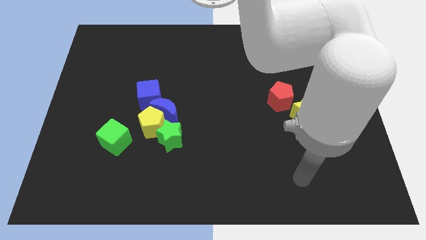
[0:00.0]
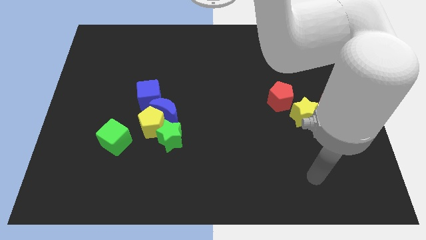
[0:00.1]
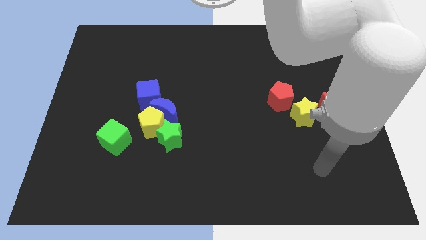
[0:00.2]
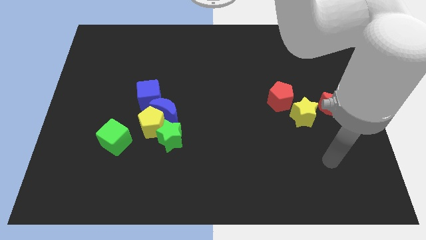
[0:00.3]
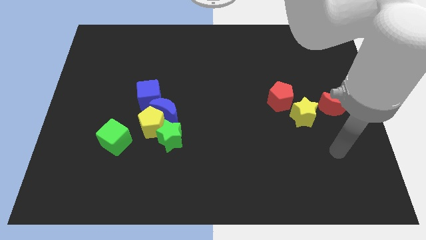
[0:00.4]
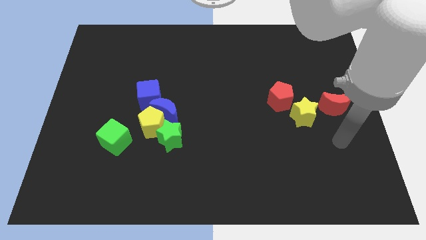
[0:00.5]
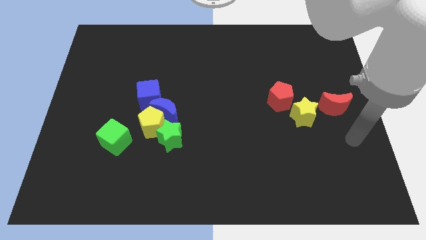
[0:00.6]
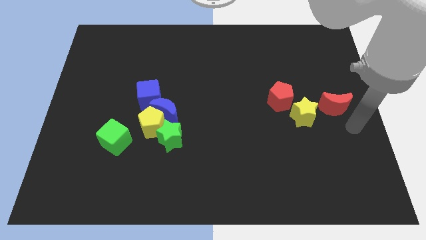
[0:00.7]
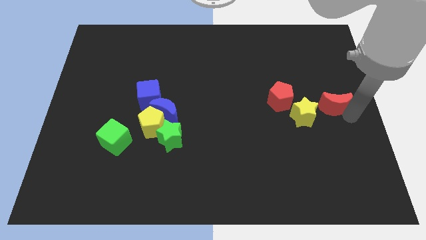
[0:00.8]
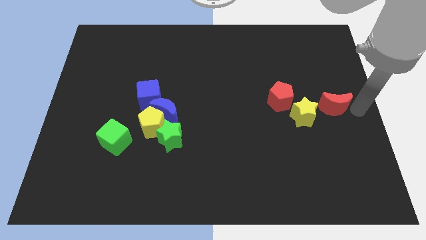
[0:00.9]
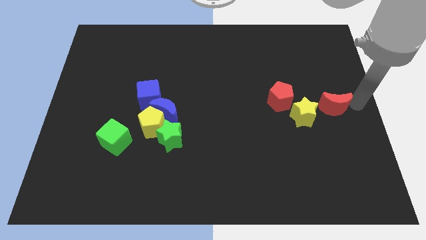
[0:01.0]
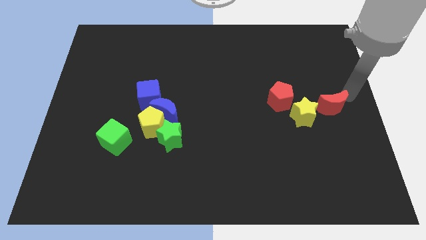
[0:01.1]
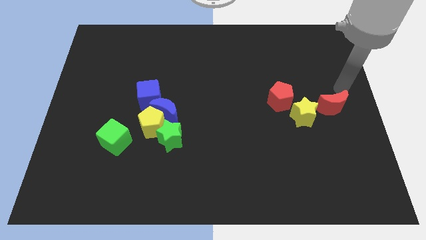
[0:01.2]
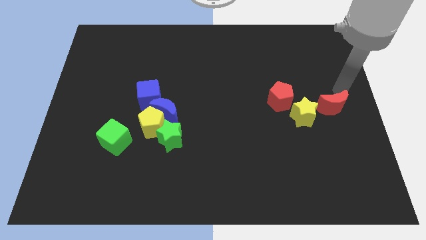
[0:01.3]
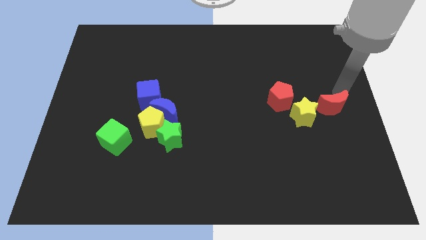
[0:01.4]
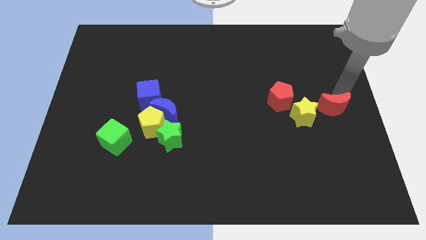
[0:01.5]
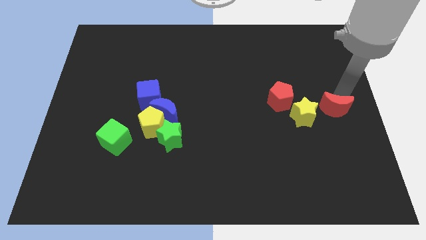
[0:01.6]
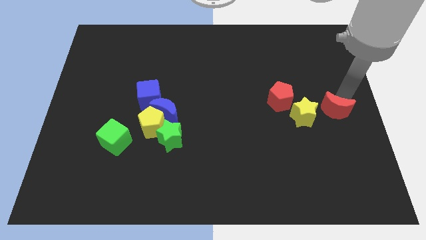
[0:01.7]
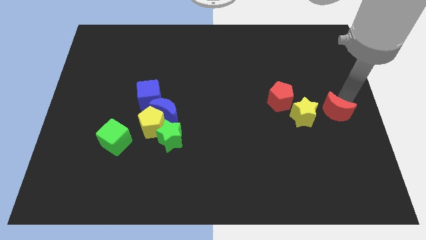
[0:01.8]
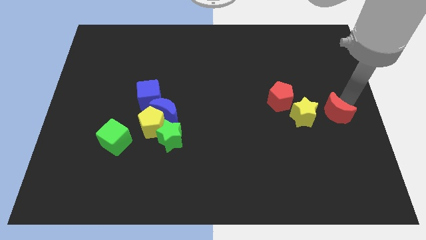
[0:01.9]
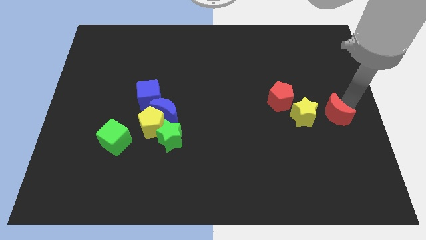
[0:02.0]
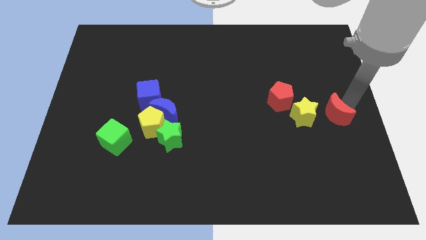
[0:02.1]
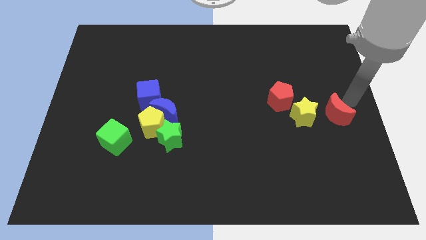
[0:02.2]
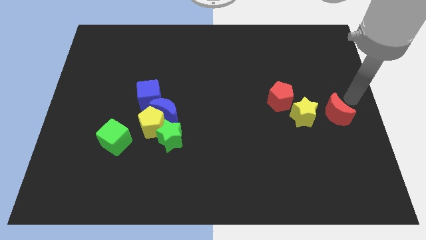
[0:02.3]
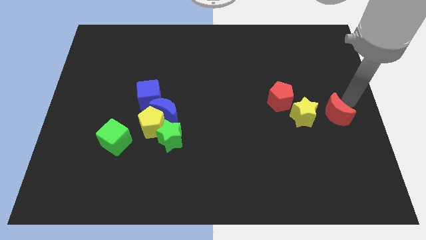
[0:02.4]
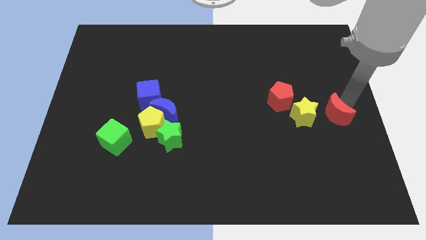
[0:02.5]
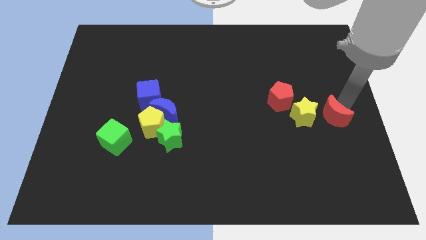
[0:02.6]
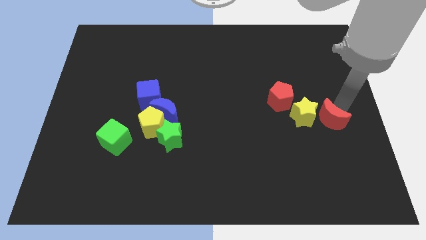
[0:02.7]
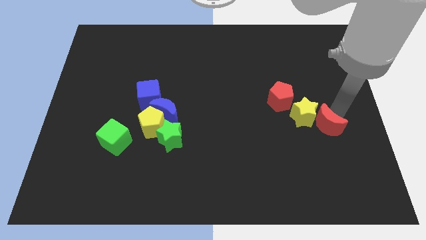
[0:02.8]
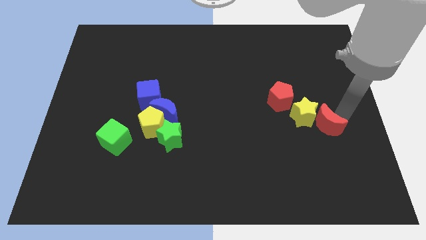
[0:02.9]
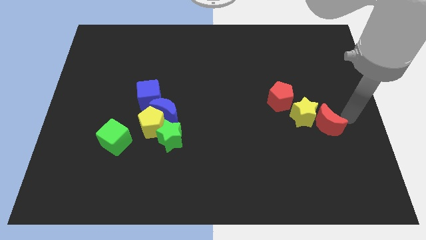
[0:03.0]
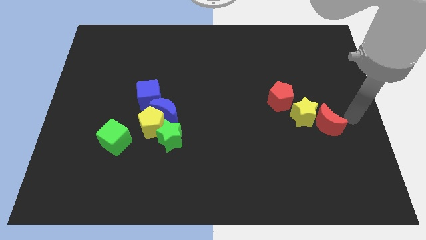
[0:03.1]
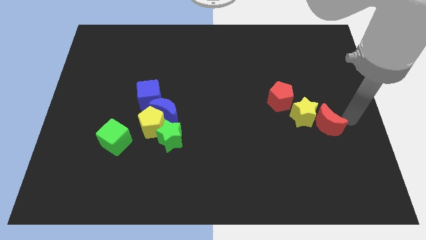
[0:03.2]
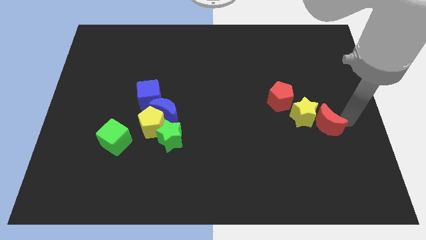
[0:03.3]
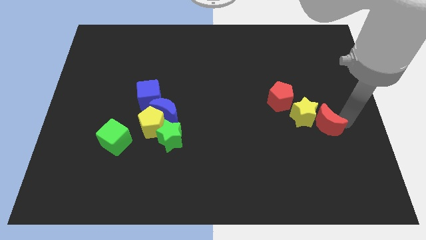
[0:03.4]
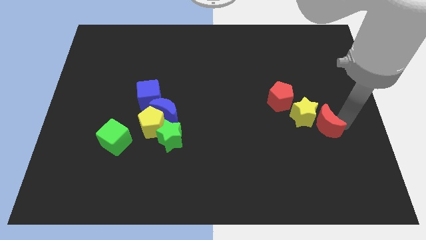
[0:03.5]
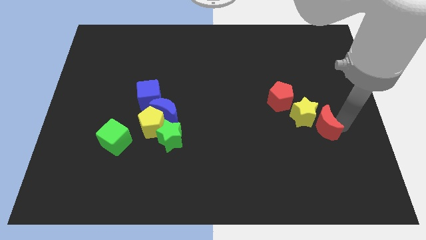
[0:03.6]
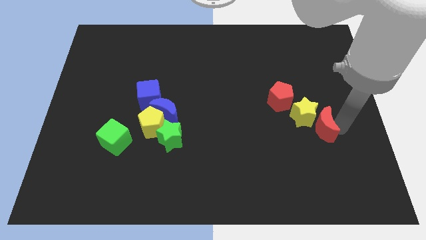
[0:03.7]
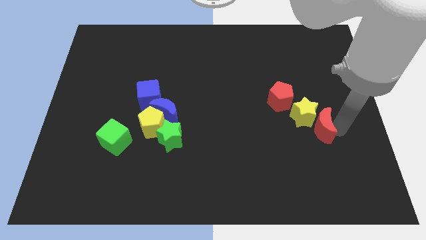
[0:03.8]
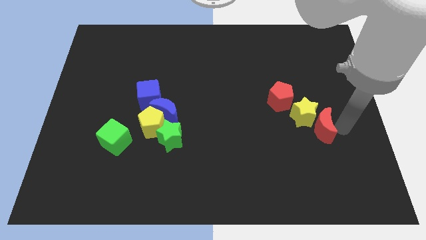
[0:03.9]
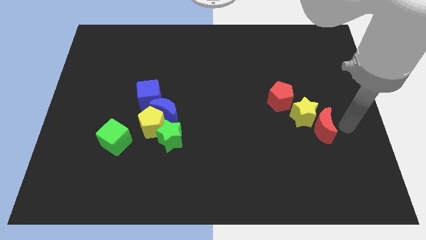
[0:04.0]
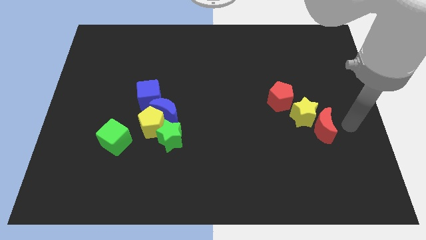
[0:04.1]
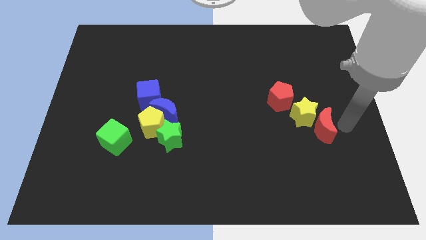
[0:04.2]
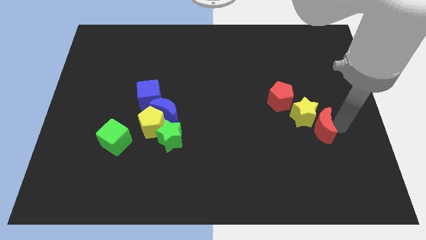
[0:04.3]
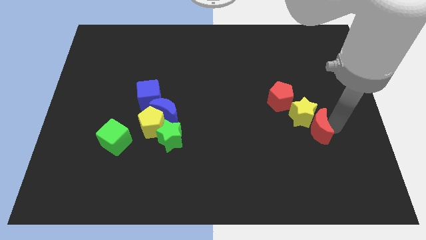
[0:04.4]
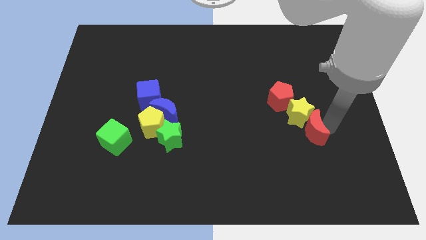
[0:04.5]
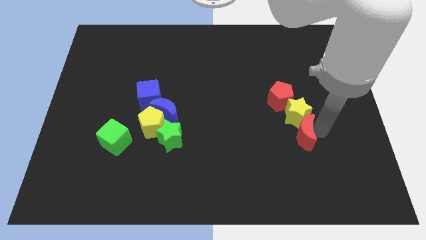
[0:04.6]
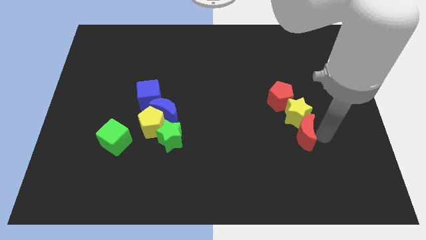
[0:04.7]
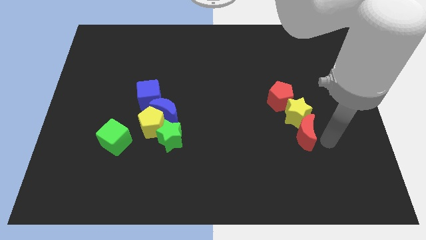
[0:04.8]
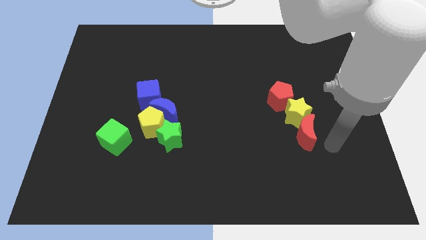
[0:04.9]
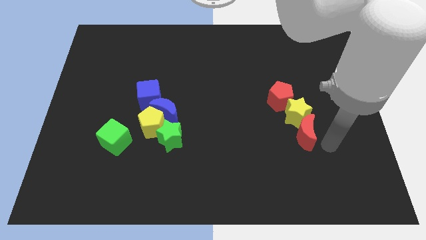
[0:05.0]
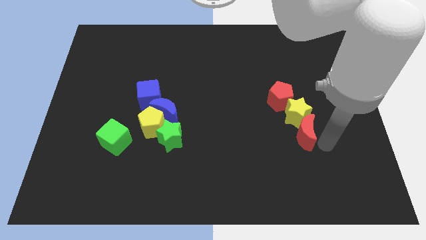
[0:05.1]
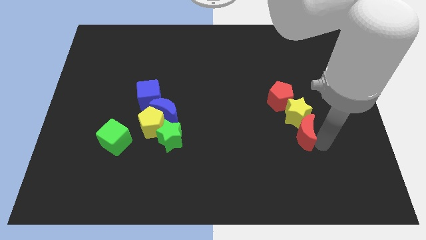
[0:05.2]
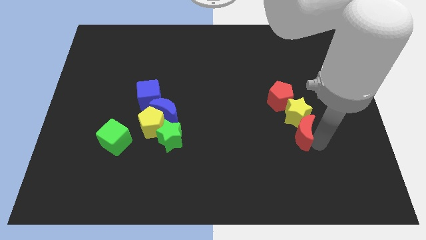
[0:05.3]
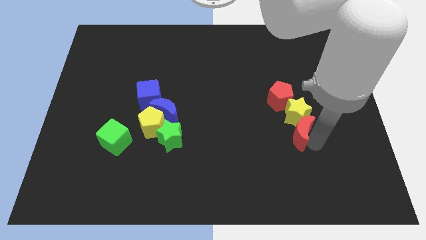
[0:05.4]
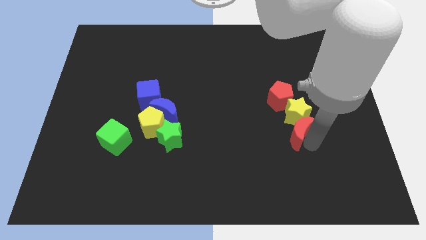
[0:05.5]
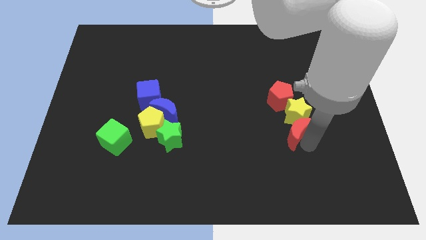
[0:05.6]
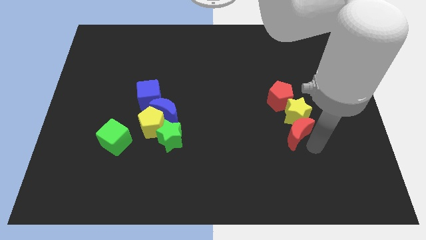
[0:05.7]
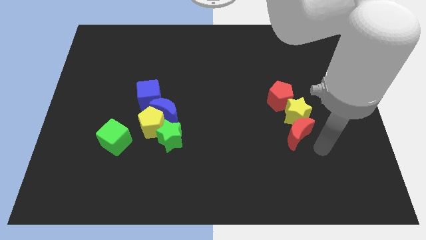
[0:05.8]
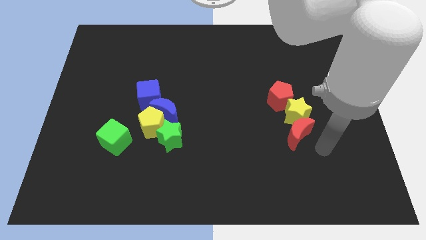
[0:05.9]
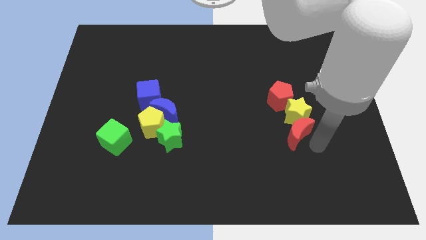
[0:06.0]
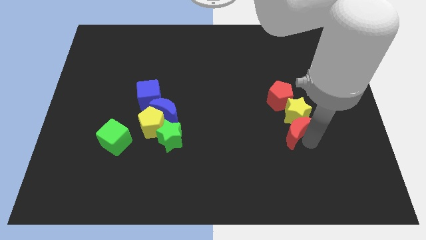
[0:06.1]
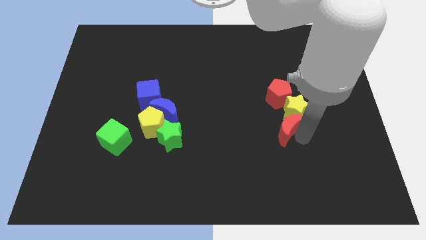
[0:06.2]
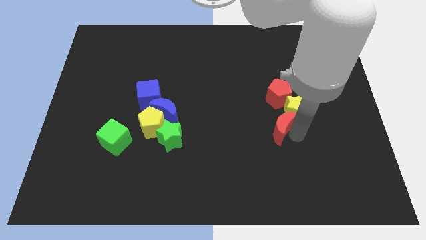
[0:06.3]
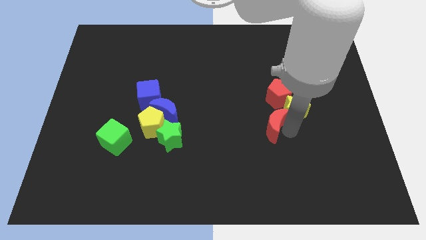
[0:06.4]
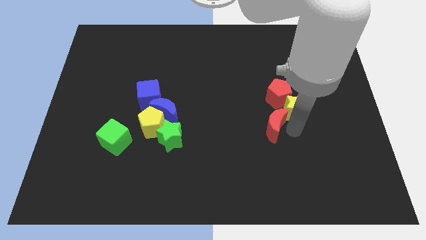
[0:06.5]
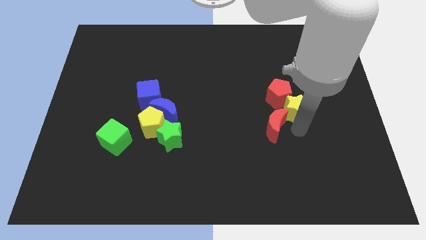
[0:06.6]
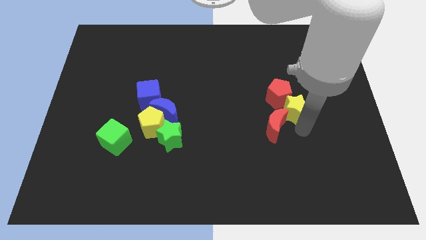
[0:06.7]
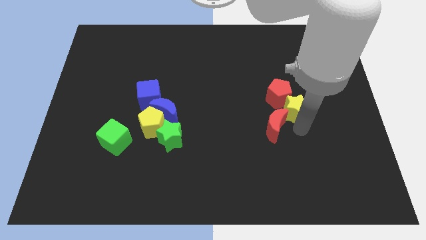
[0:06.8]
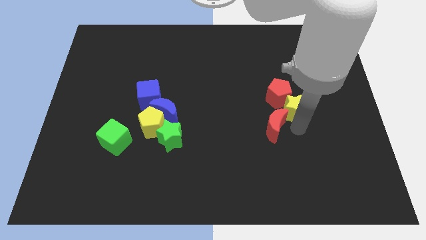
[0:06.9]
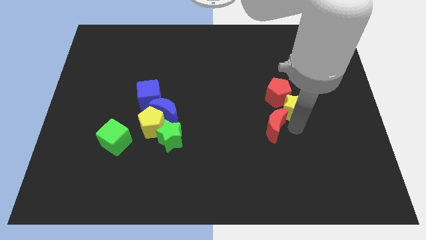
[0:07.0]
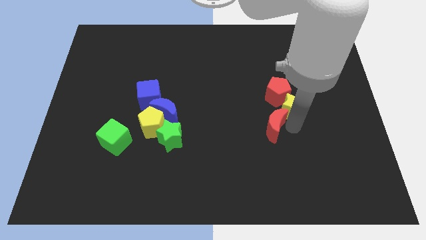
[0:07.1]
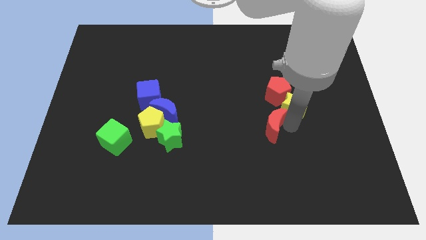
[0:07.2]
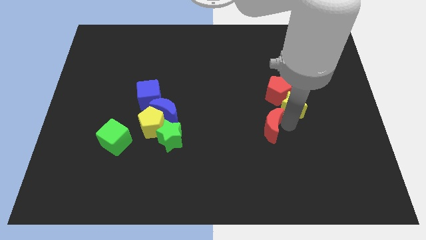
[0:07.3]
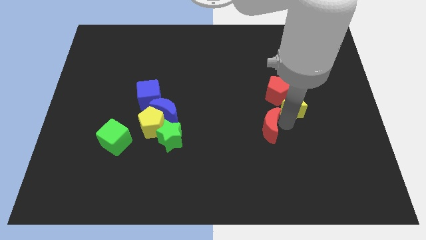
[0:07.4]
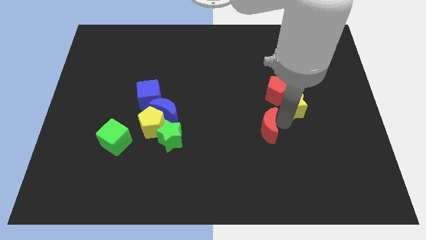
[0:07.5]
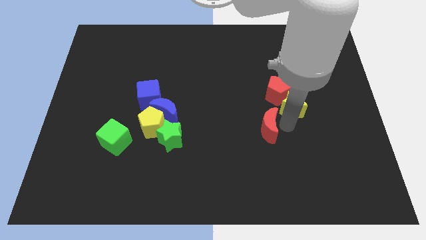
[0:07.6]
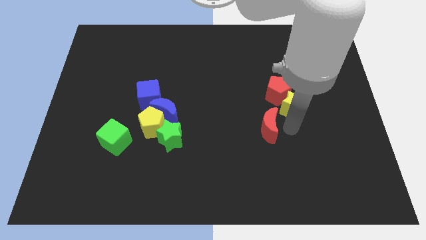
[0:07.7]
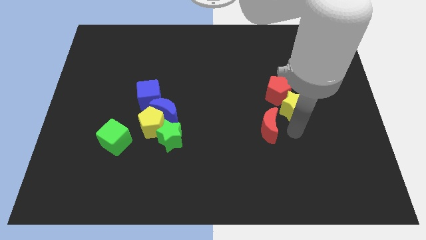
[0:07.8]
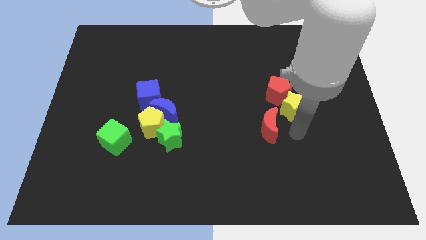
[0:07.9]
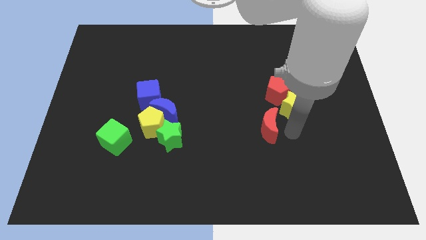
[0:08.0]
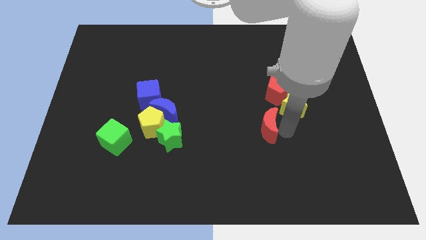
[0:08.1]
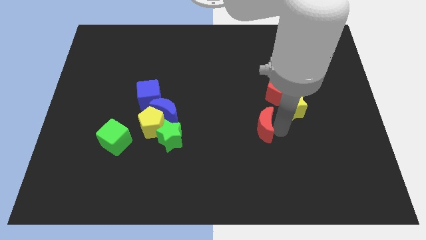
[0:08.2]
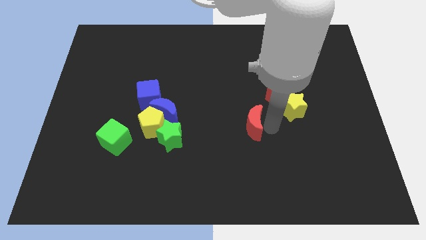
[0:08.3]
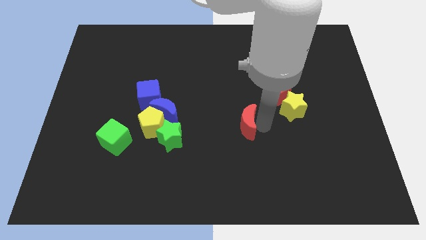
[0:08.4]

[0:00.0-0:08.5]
slide the red moon left
